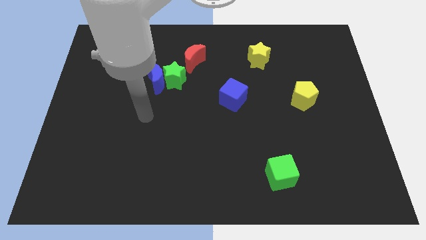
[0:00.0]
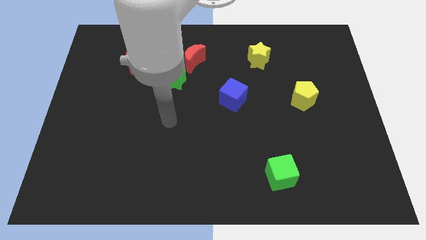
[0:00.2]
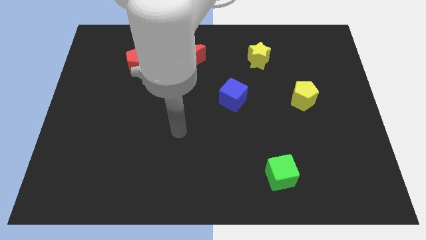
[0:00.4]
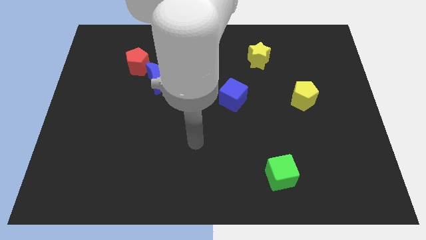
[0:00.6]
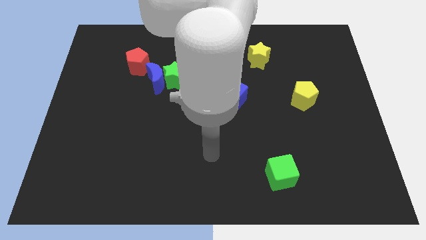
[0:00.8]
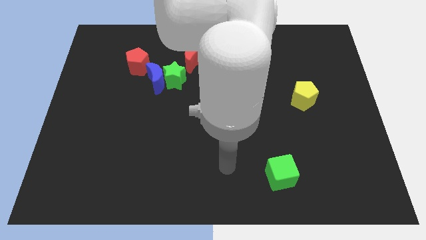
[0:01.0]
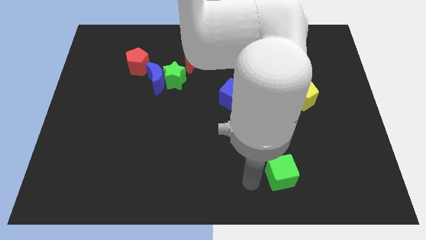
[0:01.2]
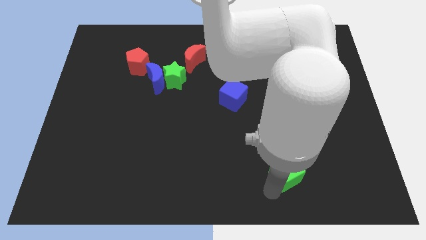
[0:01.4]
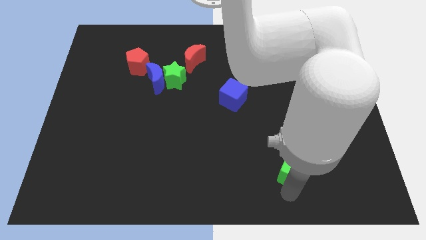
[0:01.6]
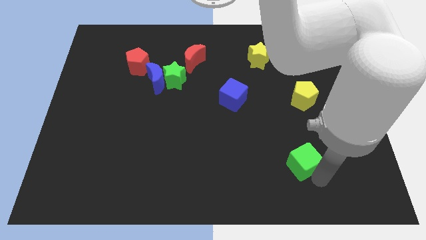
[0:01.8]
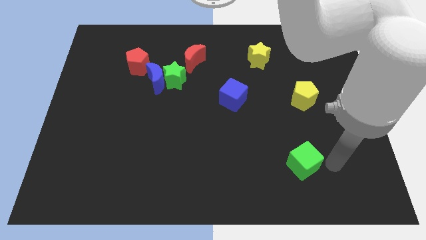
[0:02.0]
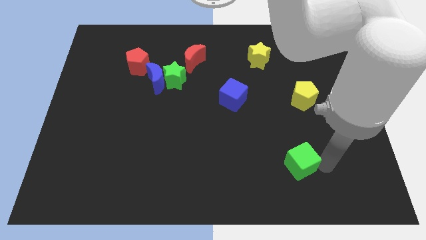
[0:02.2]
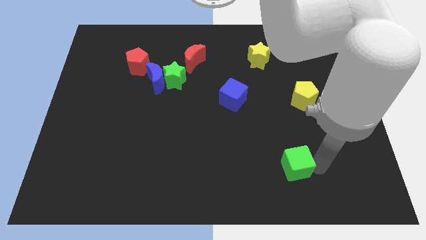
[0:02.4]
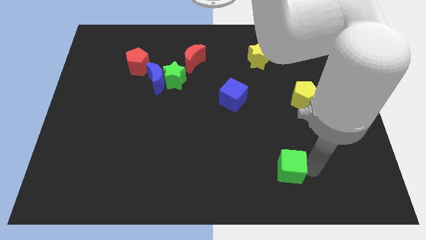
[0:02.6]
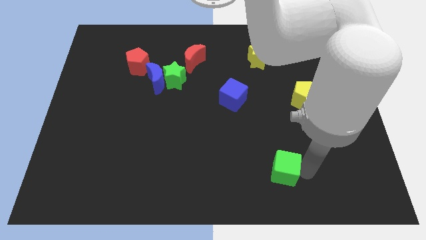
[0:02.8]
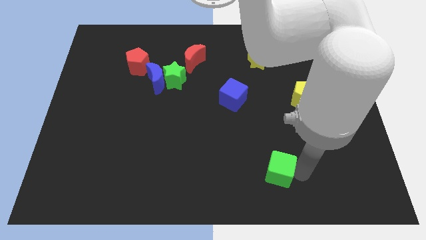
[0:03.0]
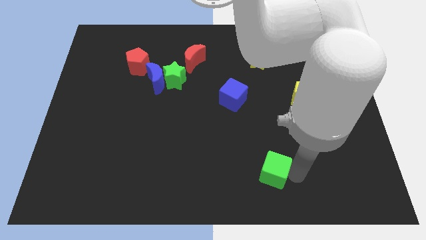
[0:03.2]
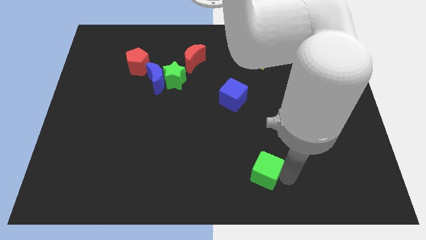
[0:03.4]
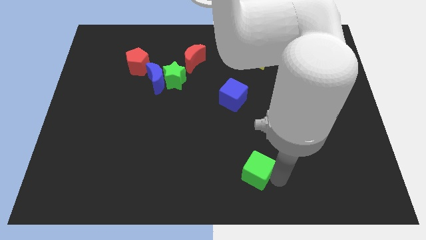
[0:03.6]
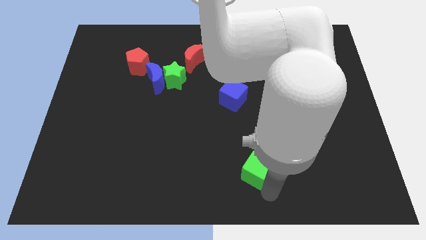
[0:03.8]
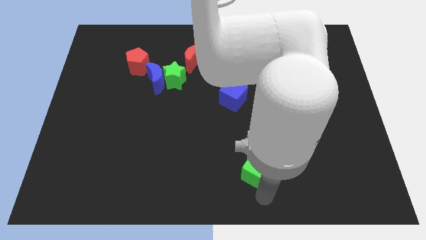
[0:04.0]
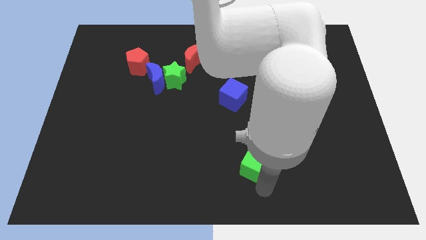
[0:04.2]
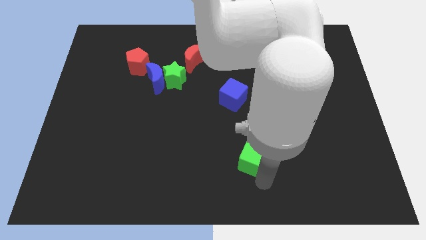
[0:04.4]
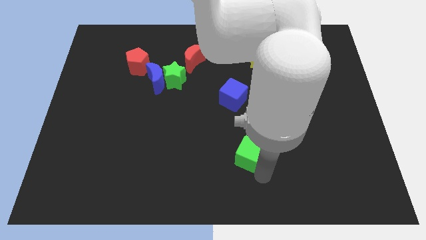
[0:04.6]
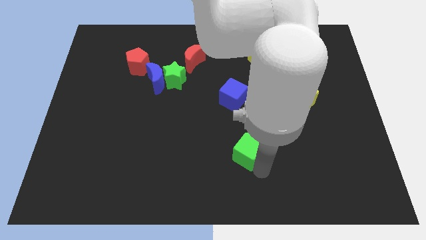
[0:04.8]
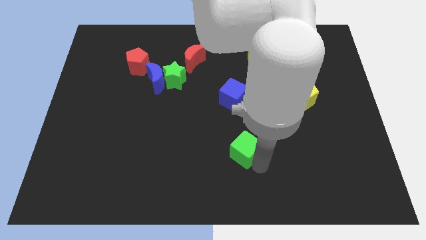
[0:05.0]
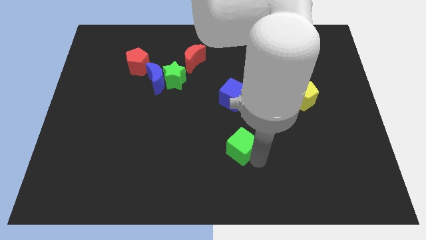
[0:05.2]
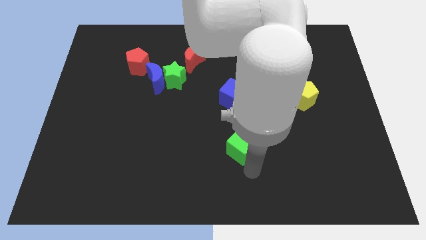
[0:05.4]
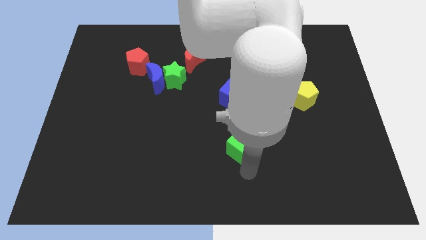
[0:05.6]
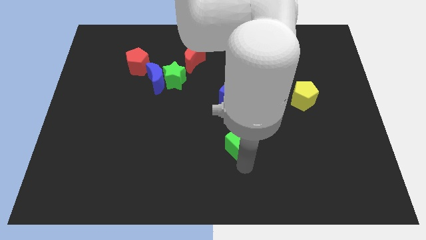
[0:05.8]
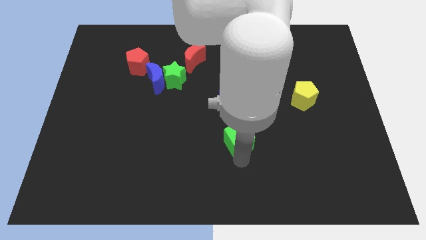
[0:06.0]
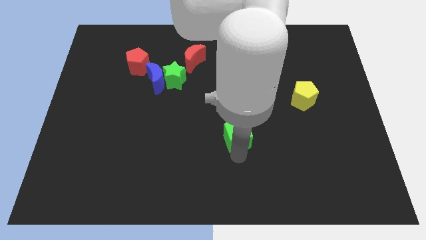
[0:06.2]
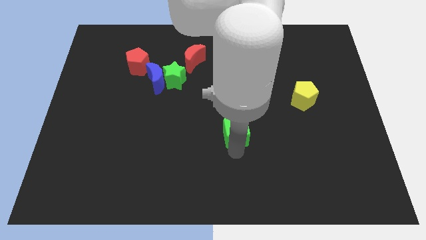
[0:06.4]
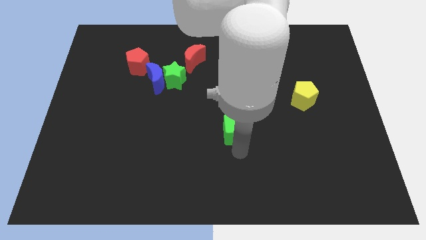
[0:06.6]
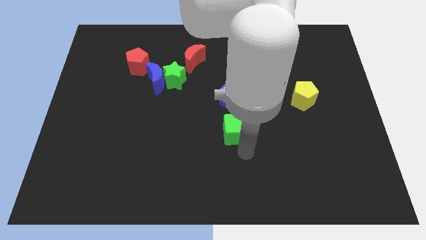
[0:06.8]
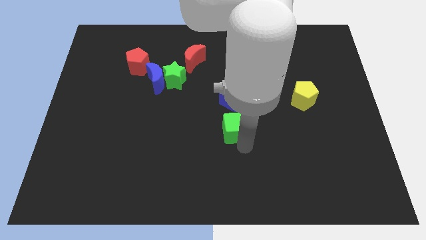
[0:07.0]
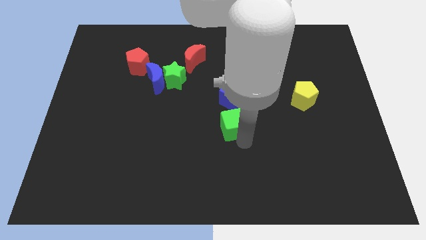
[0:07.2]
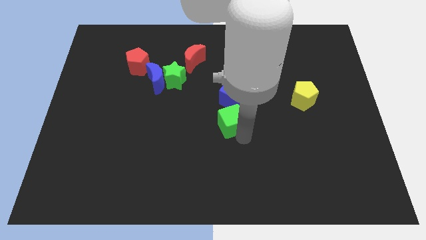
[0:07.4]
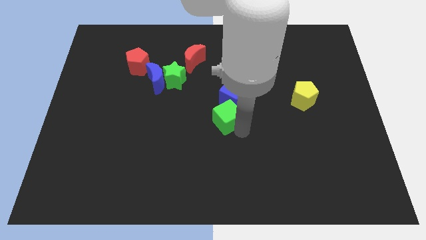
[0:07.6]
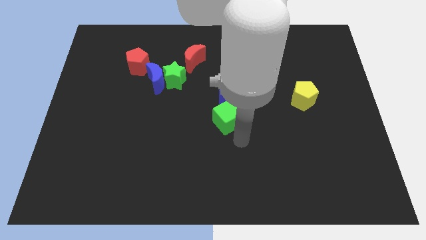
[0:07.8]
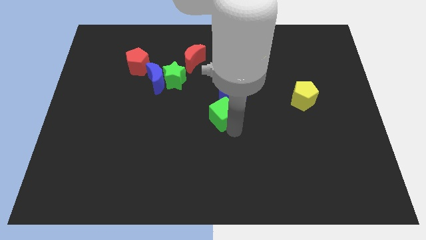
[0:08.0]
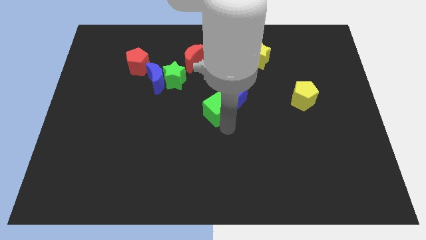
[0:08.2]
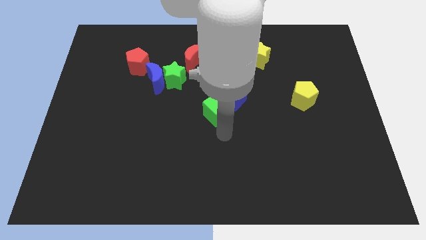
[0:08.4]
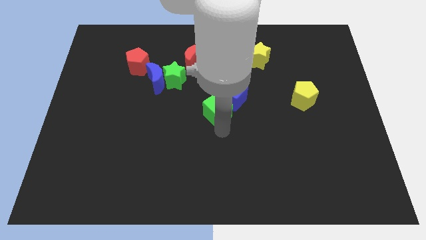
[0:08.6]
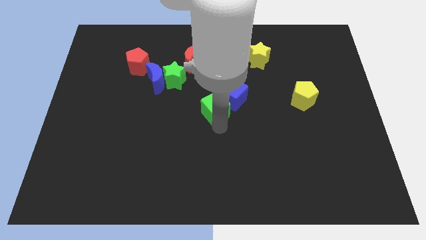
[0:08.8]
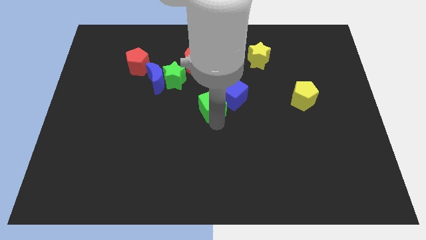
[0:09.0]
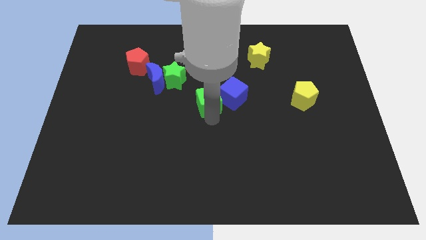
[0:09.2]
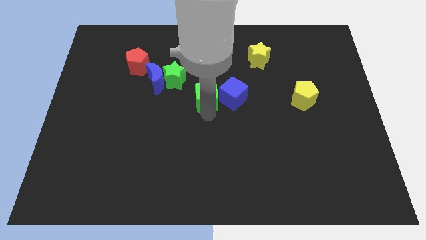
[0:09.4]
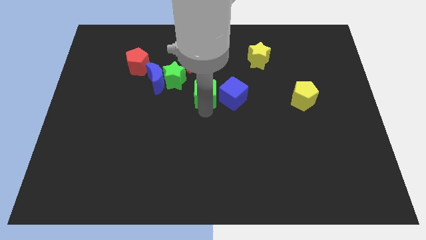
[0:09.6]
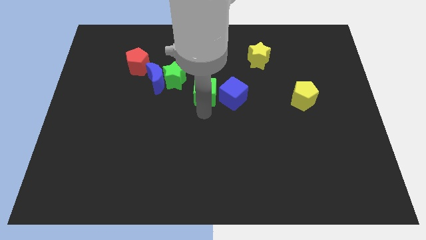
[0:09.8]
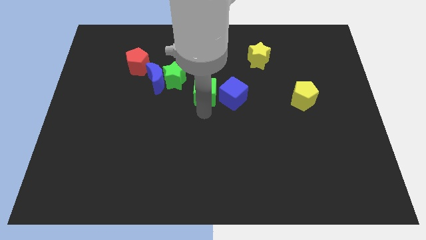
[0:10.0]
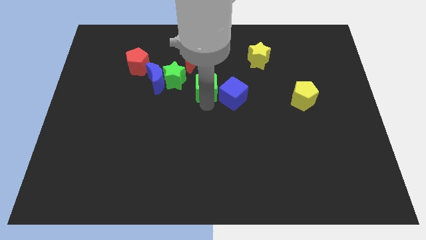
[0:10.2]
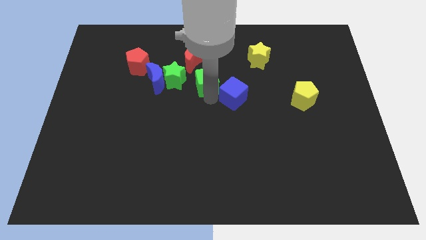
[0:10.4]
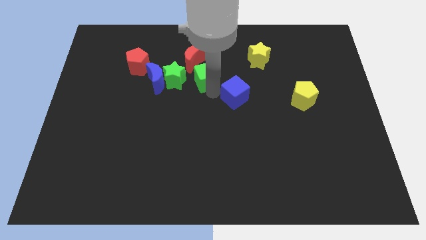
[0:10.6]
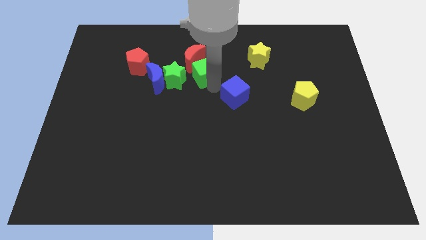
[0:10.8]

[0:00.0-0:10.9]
push the green cube towards the red moon

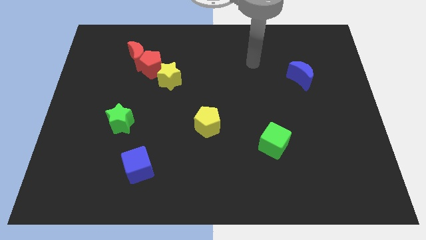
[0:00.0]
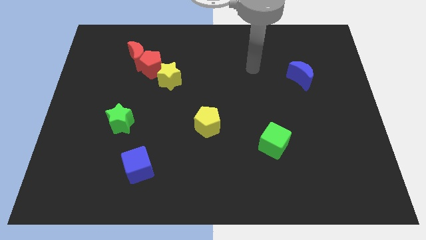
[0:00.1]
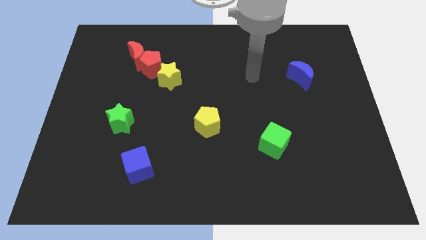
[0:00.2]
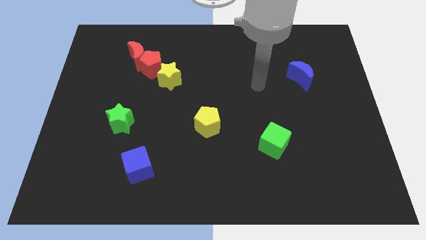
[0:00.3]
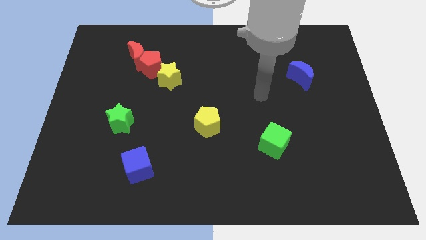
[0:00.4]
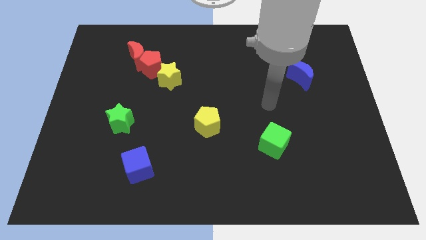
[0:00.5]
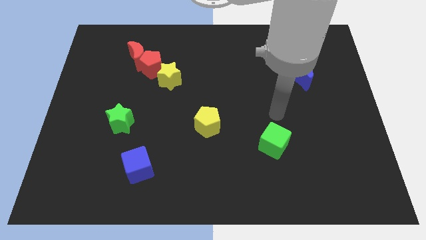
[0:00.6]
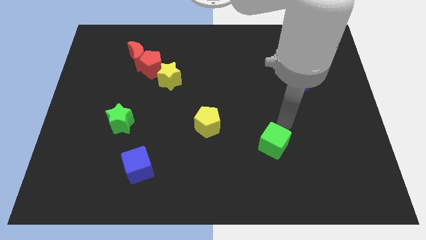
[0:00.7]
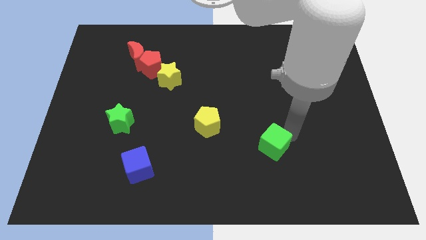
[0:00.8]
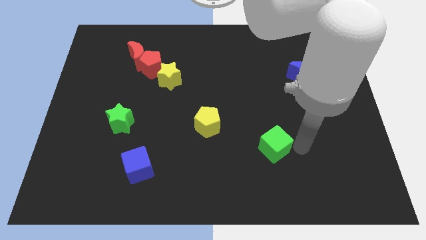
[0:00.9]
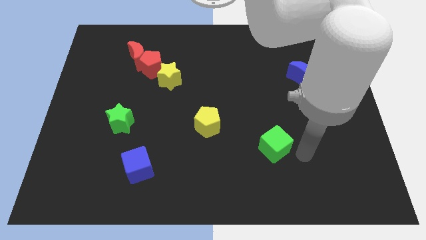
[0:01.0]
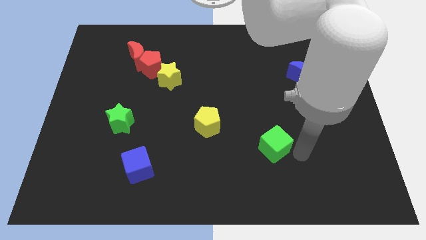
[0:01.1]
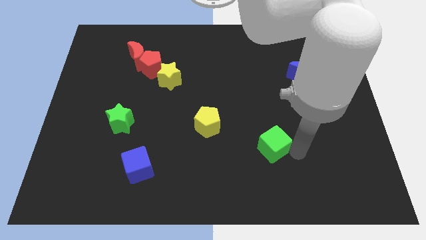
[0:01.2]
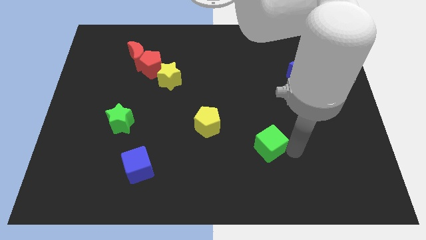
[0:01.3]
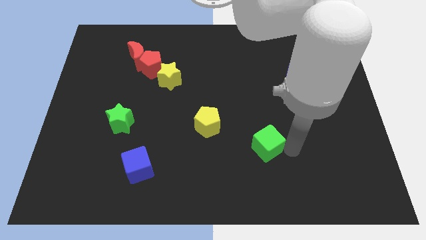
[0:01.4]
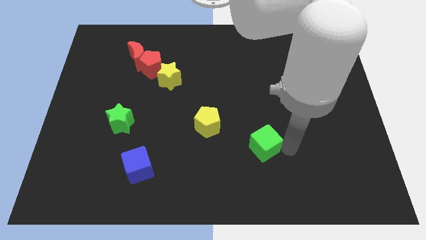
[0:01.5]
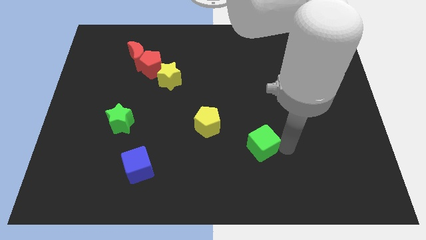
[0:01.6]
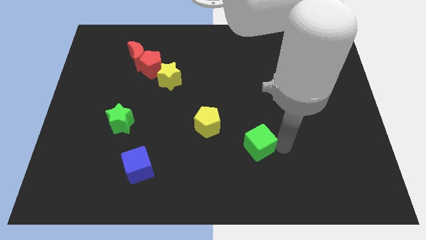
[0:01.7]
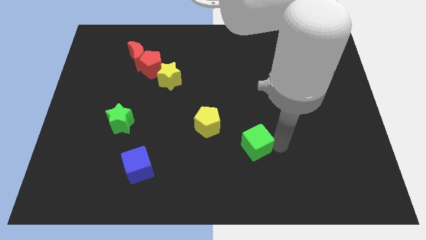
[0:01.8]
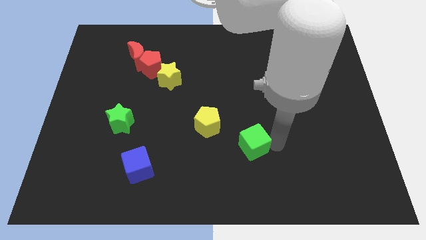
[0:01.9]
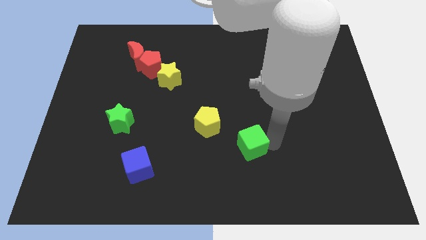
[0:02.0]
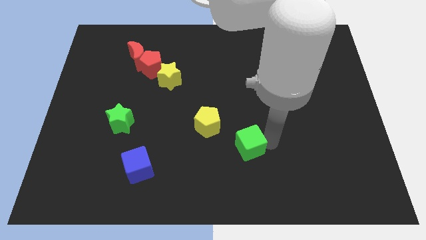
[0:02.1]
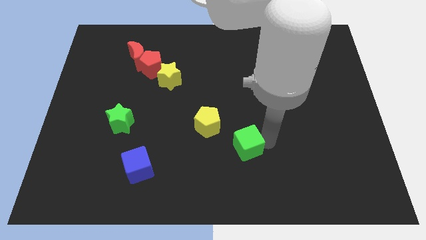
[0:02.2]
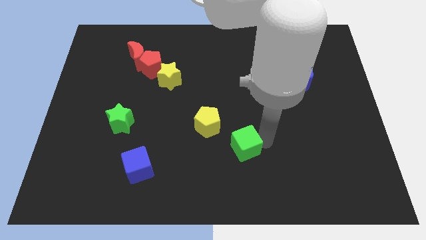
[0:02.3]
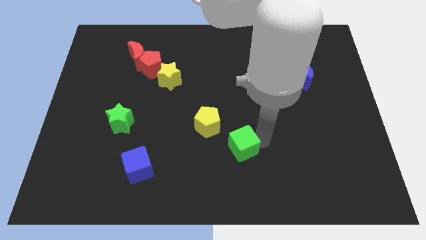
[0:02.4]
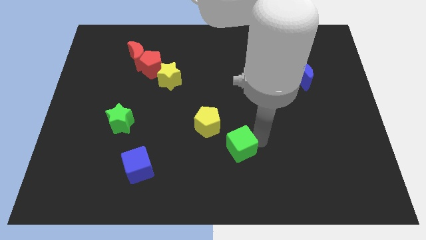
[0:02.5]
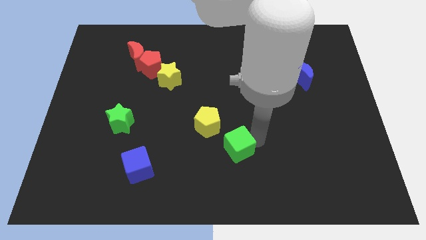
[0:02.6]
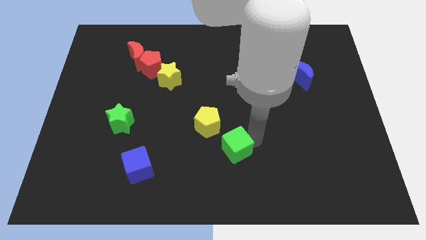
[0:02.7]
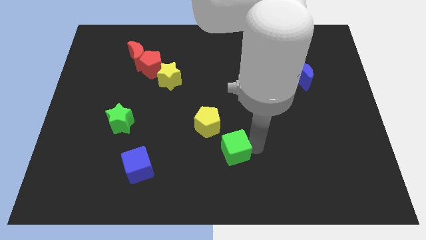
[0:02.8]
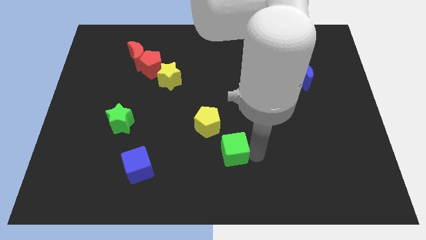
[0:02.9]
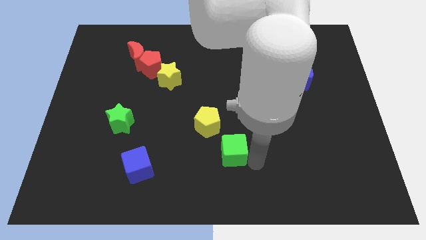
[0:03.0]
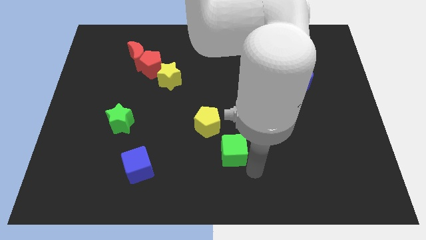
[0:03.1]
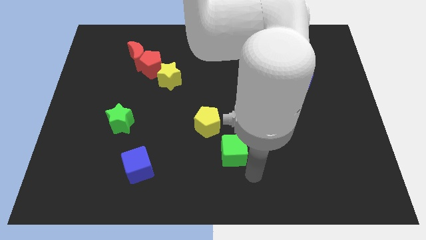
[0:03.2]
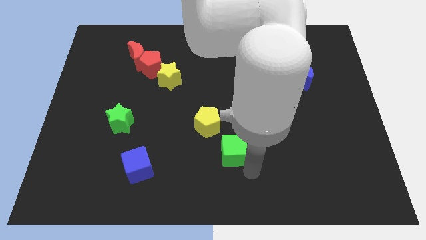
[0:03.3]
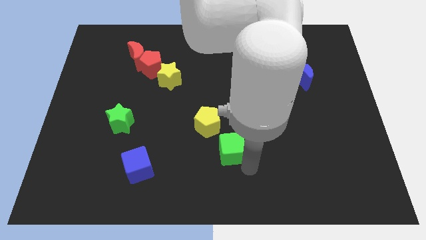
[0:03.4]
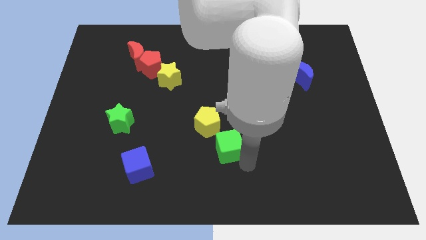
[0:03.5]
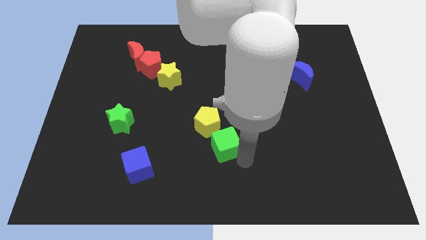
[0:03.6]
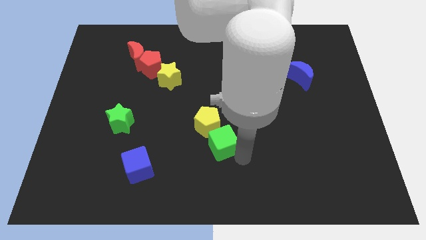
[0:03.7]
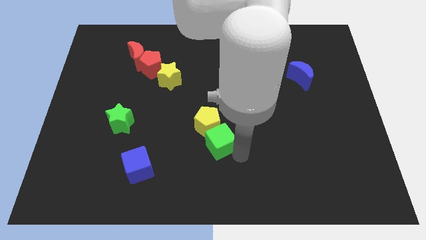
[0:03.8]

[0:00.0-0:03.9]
move the green cube to the yellow pentagon
